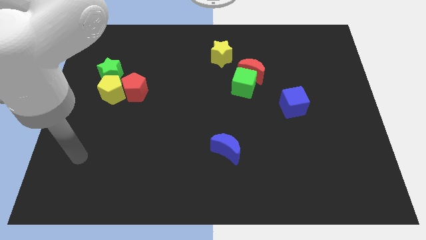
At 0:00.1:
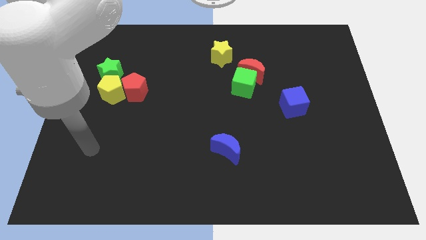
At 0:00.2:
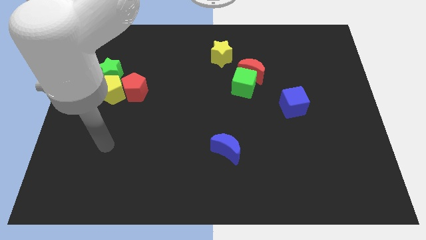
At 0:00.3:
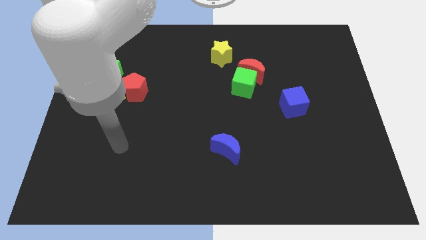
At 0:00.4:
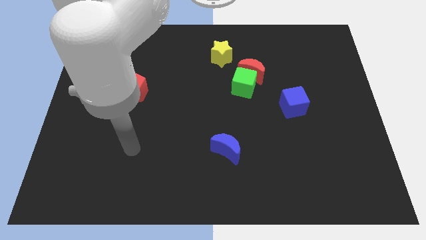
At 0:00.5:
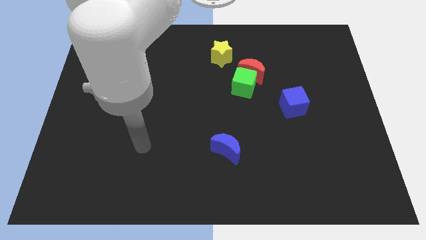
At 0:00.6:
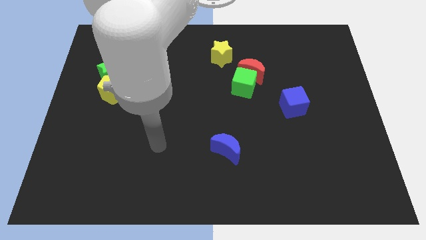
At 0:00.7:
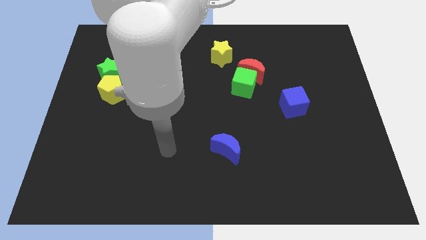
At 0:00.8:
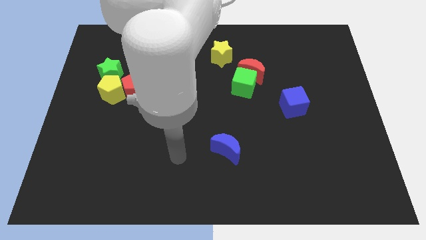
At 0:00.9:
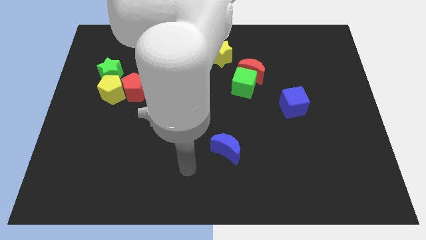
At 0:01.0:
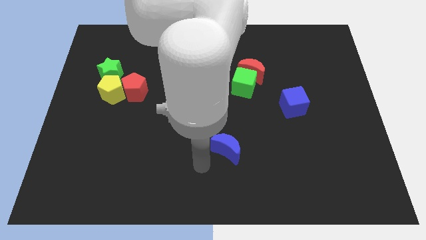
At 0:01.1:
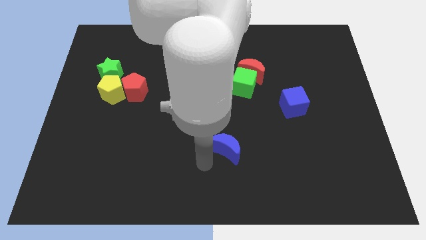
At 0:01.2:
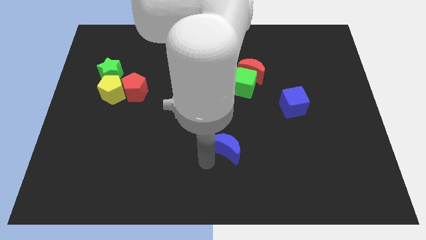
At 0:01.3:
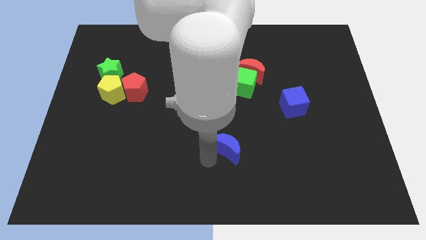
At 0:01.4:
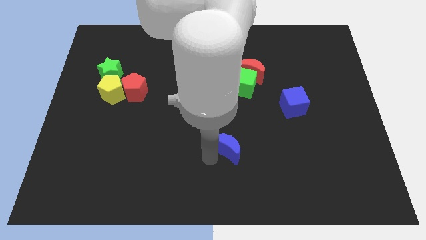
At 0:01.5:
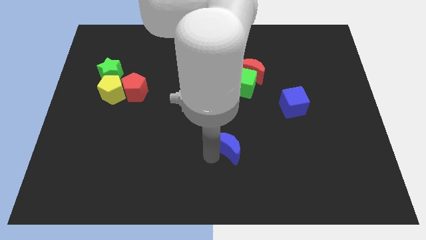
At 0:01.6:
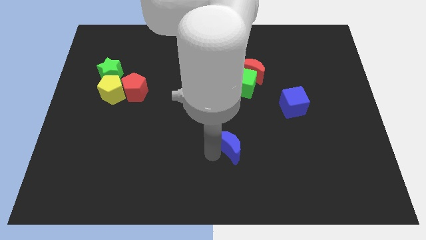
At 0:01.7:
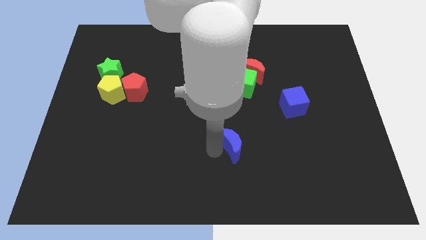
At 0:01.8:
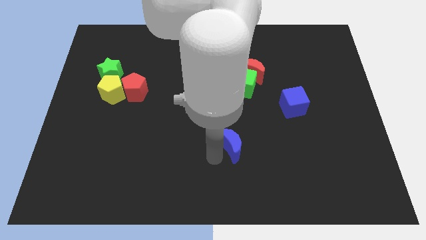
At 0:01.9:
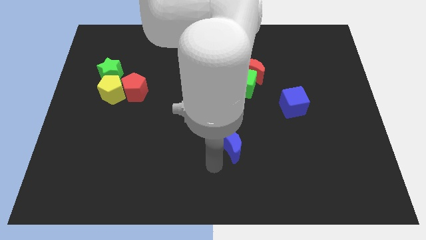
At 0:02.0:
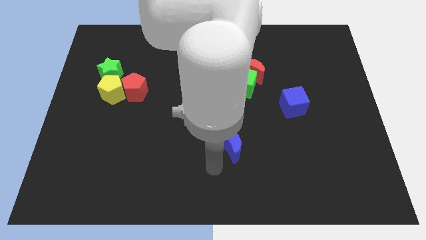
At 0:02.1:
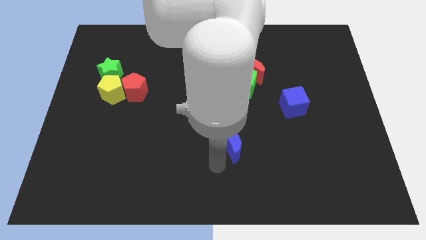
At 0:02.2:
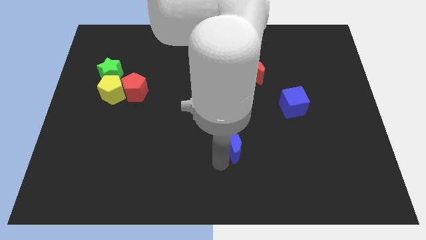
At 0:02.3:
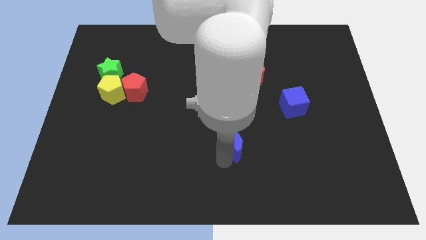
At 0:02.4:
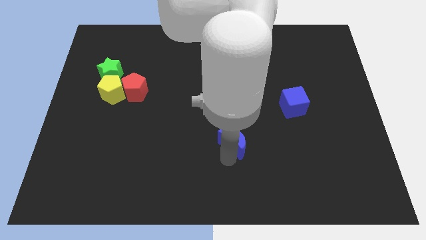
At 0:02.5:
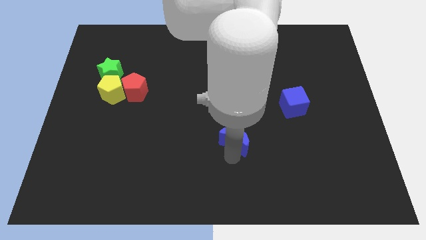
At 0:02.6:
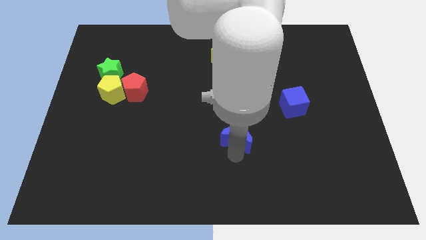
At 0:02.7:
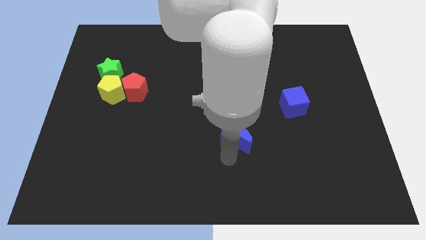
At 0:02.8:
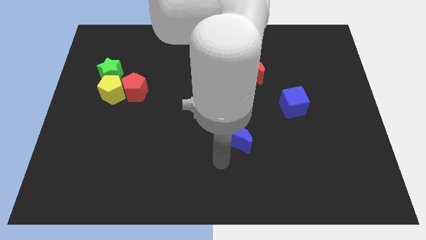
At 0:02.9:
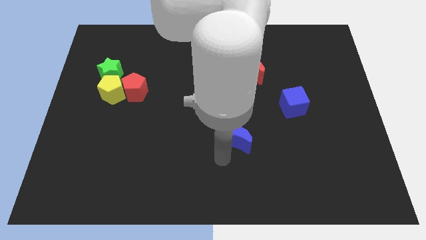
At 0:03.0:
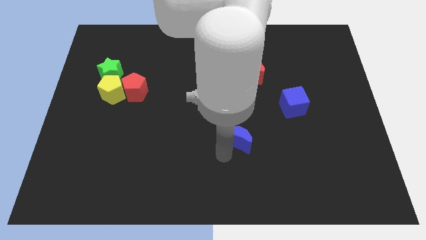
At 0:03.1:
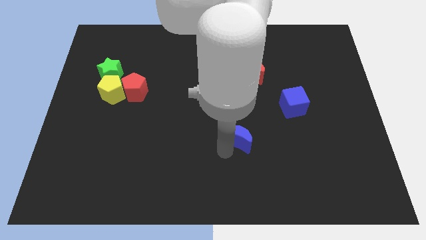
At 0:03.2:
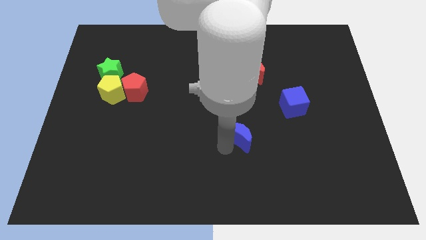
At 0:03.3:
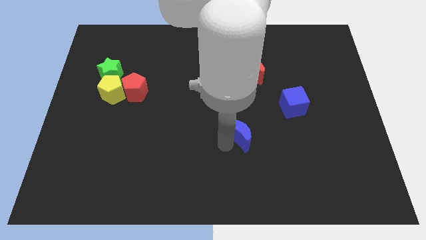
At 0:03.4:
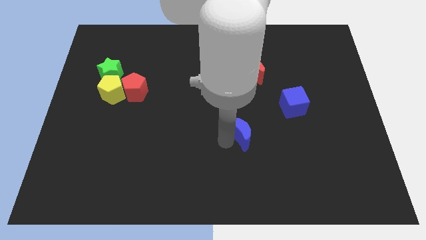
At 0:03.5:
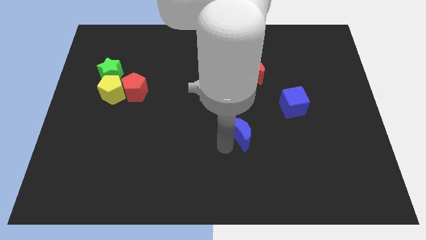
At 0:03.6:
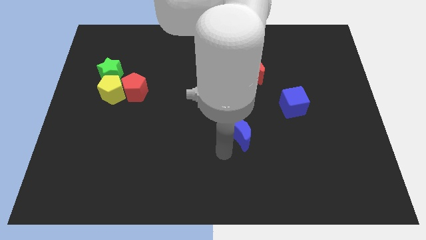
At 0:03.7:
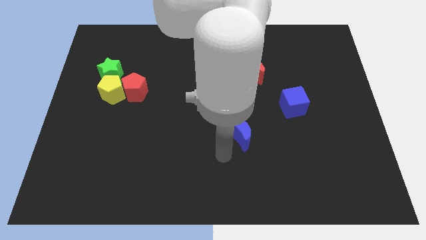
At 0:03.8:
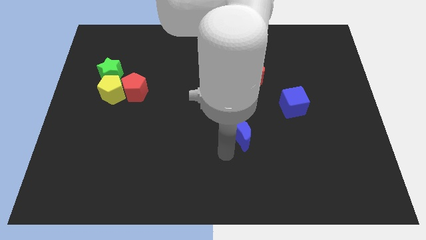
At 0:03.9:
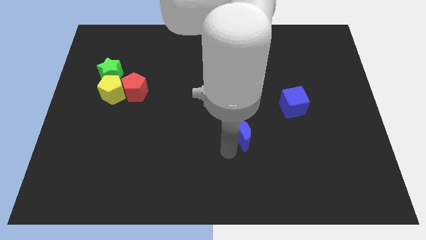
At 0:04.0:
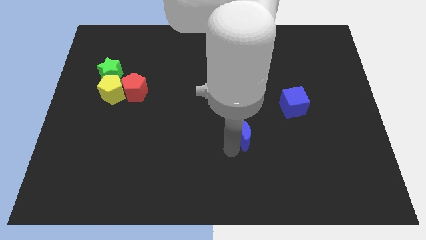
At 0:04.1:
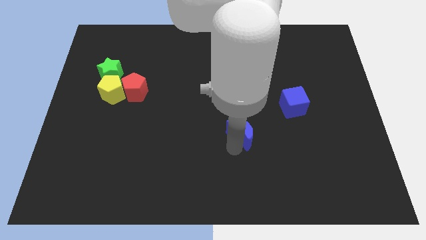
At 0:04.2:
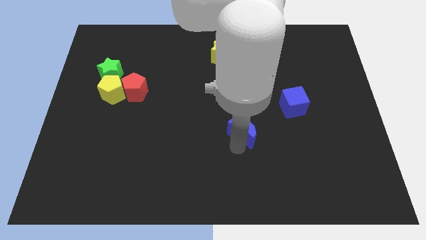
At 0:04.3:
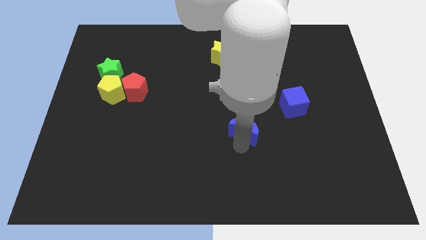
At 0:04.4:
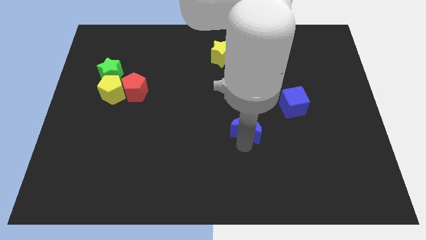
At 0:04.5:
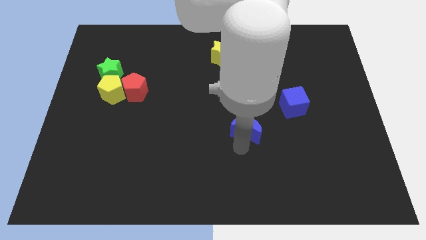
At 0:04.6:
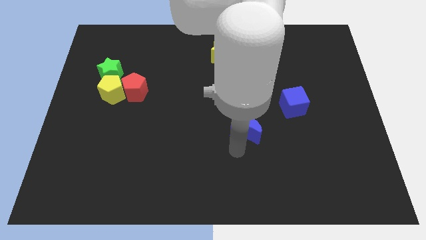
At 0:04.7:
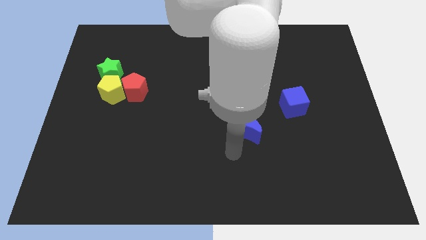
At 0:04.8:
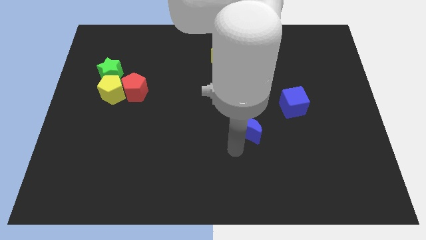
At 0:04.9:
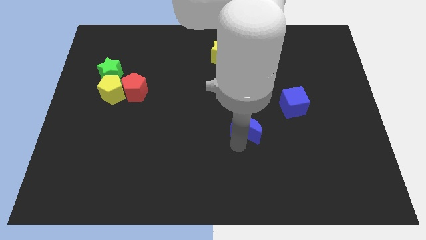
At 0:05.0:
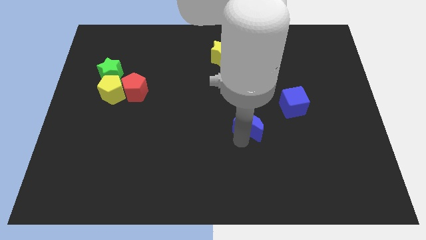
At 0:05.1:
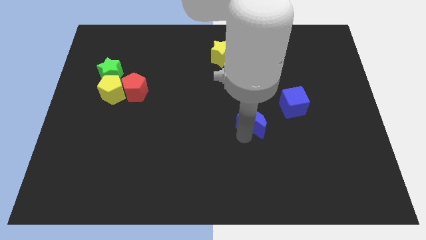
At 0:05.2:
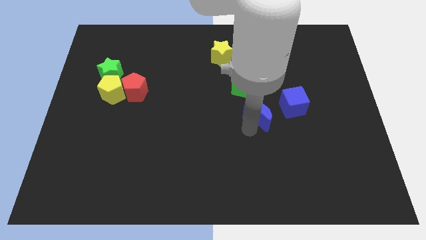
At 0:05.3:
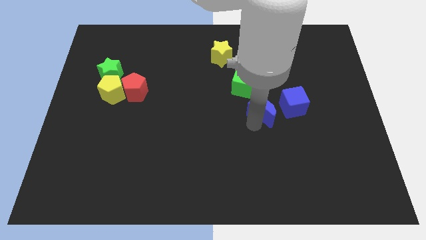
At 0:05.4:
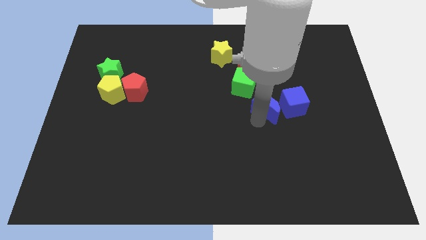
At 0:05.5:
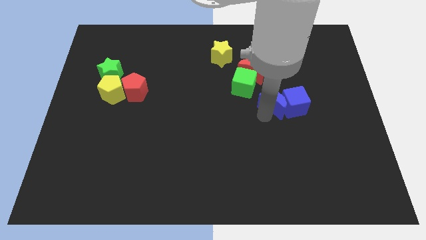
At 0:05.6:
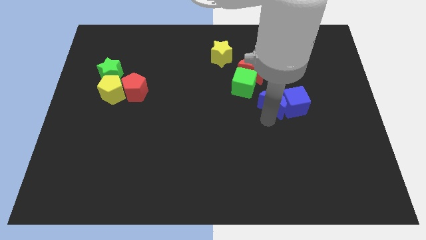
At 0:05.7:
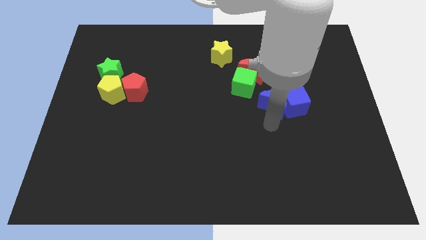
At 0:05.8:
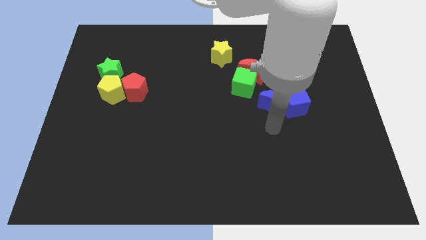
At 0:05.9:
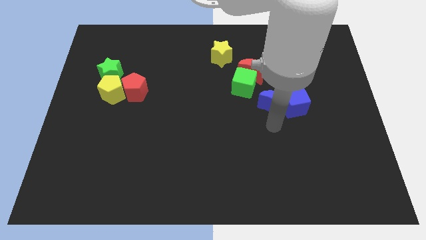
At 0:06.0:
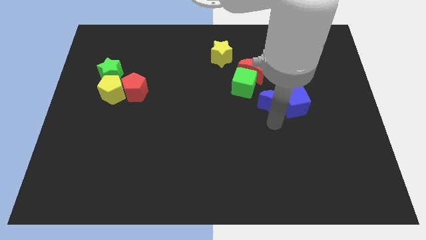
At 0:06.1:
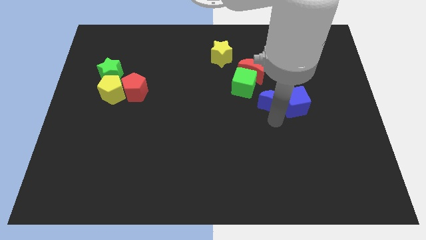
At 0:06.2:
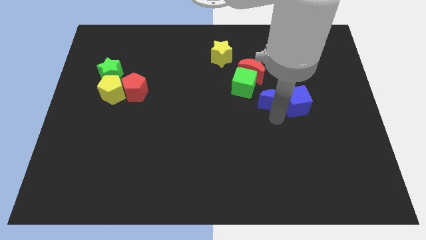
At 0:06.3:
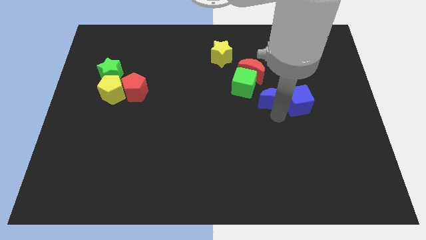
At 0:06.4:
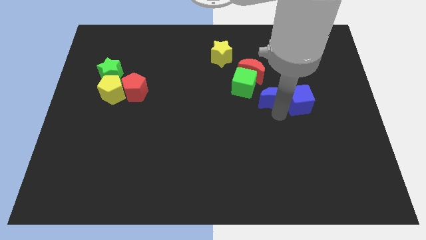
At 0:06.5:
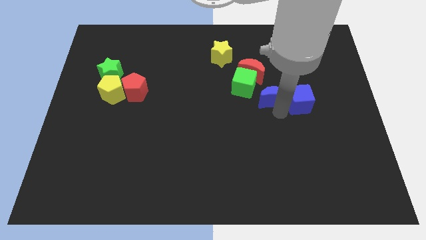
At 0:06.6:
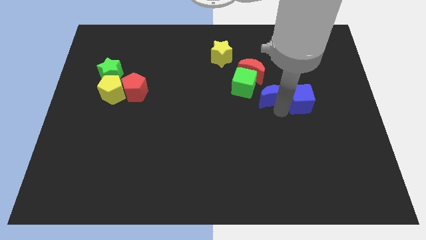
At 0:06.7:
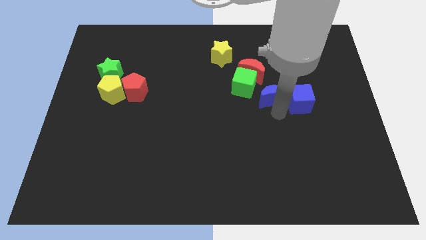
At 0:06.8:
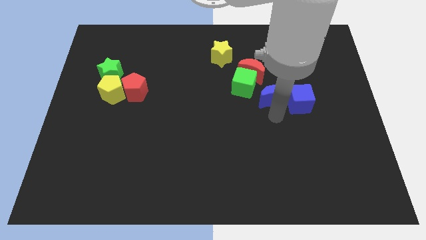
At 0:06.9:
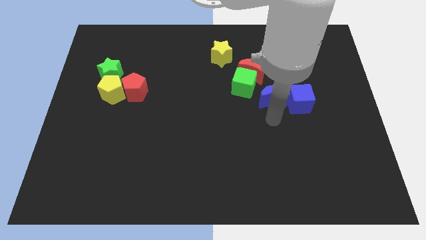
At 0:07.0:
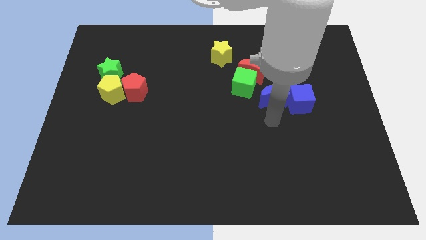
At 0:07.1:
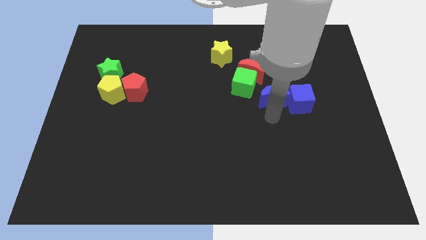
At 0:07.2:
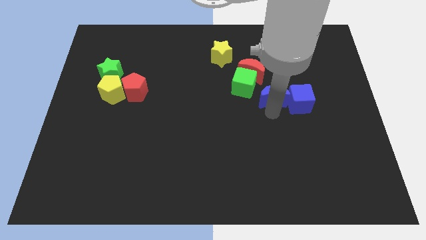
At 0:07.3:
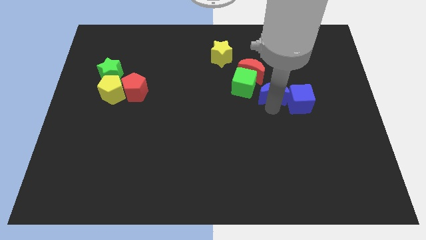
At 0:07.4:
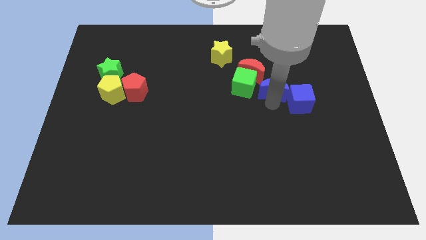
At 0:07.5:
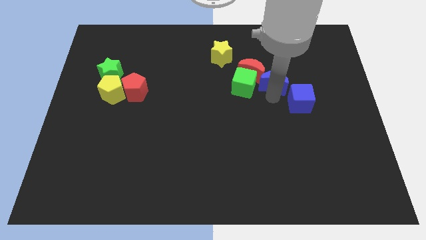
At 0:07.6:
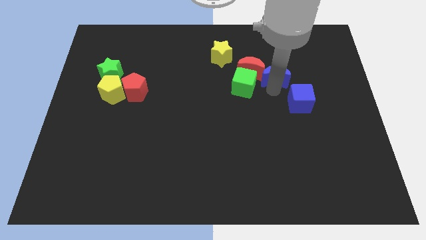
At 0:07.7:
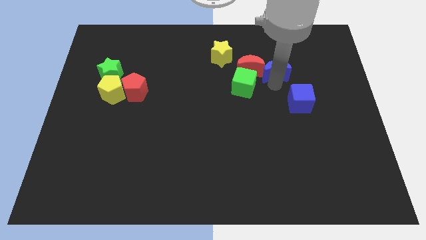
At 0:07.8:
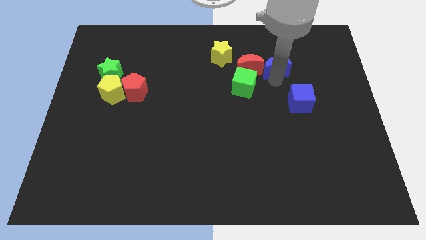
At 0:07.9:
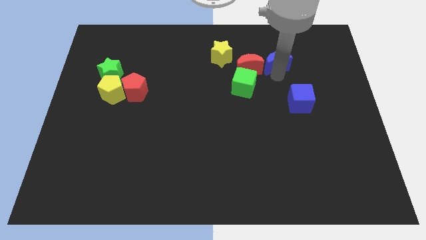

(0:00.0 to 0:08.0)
put the blue moon to the right of the yellow star
